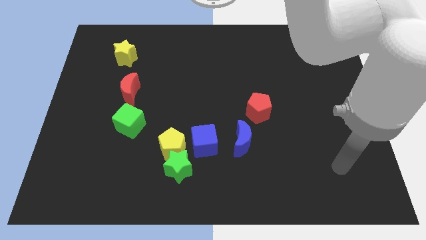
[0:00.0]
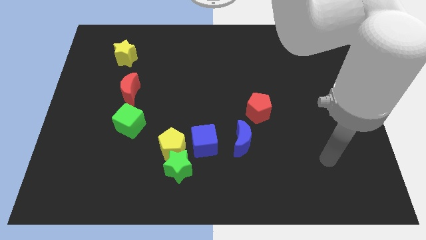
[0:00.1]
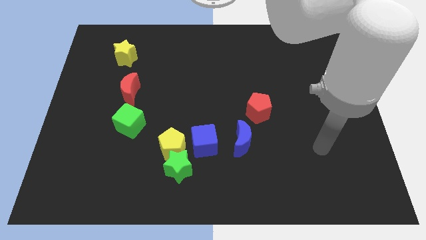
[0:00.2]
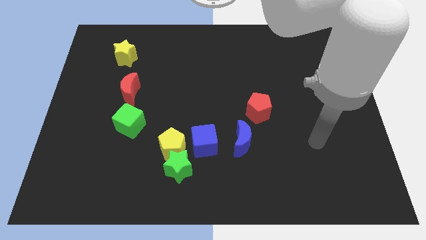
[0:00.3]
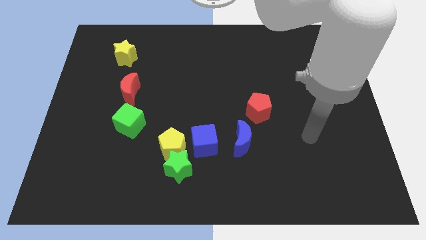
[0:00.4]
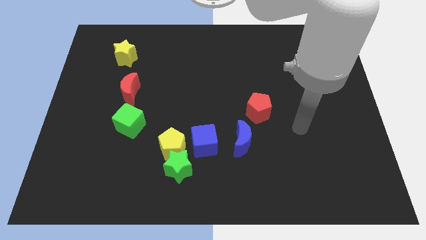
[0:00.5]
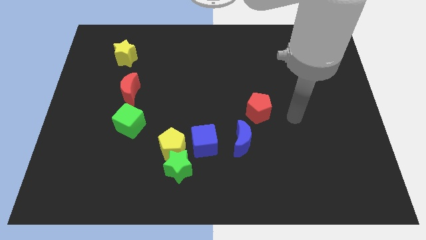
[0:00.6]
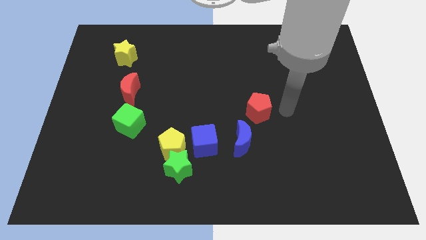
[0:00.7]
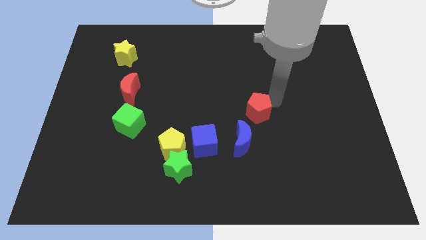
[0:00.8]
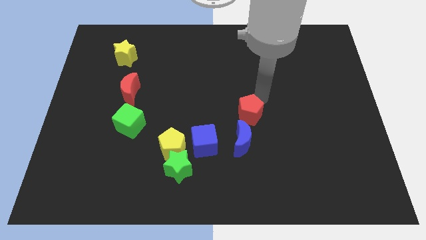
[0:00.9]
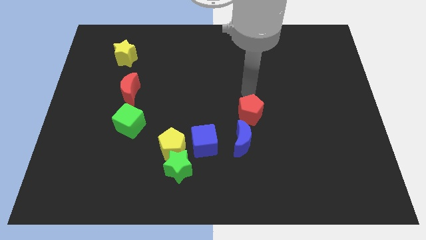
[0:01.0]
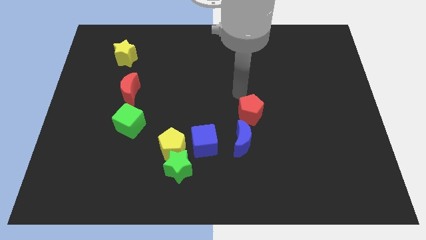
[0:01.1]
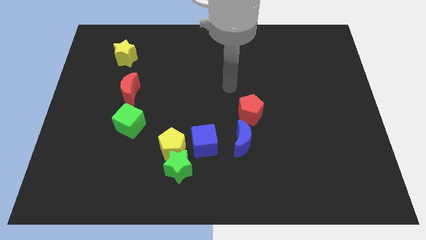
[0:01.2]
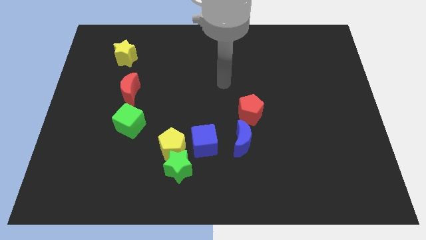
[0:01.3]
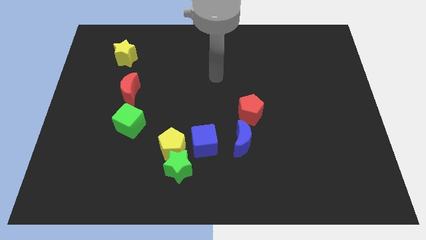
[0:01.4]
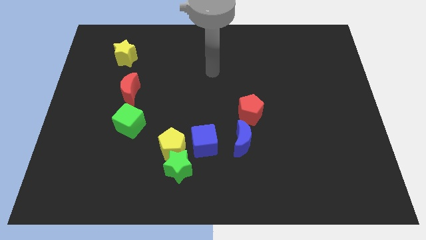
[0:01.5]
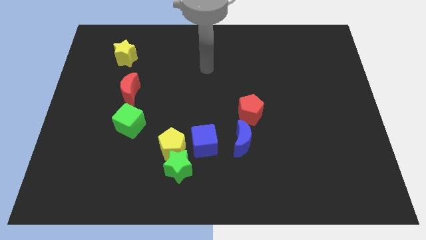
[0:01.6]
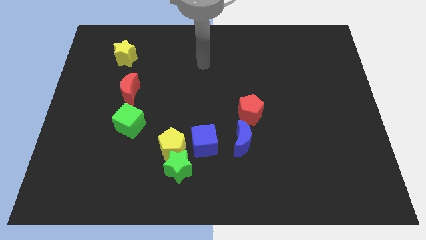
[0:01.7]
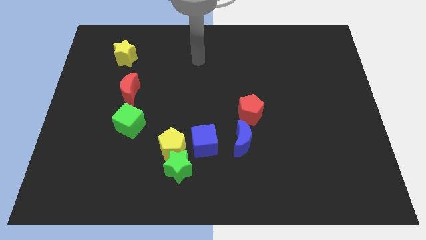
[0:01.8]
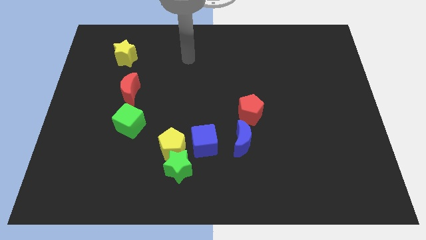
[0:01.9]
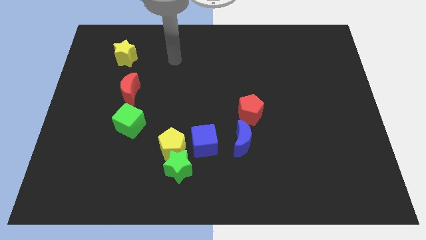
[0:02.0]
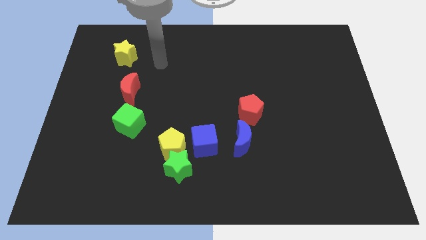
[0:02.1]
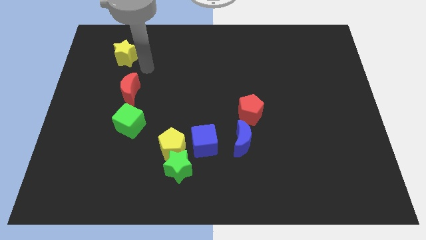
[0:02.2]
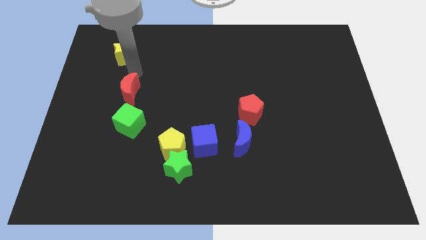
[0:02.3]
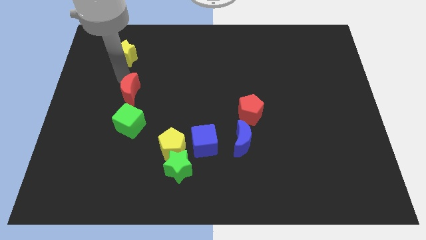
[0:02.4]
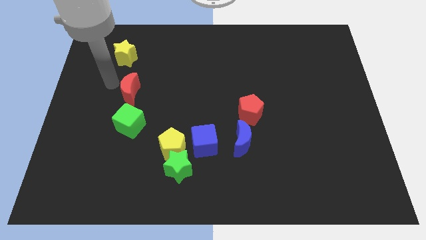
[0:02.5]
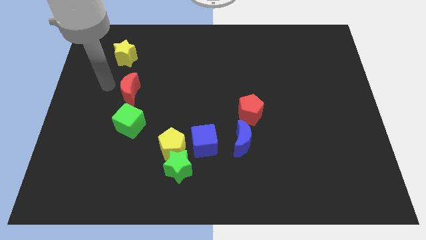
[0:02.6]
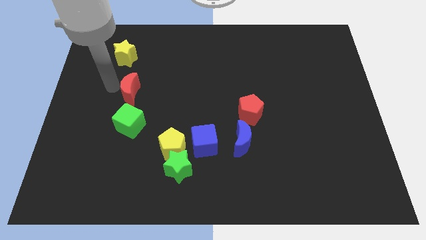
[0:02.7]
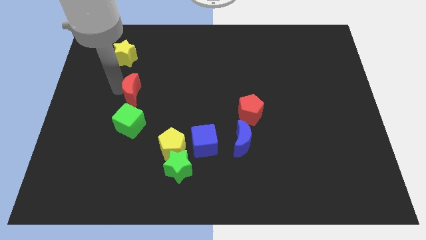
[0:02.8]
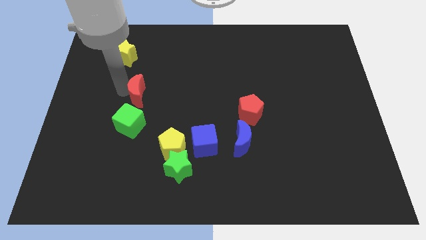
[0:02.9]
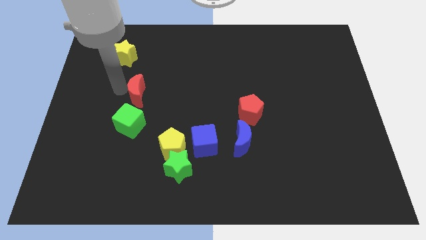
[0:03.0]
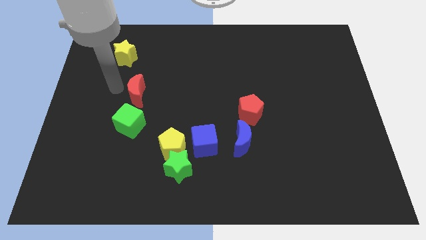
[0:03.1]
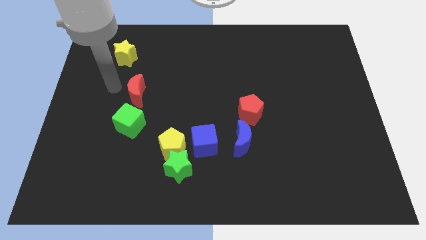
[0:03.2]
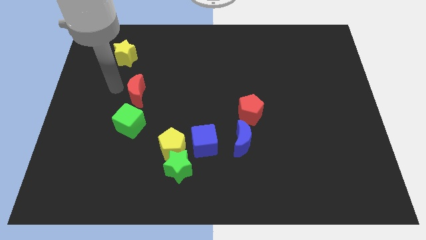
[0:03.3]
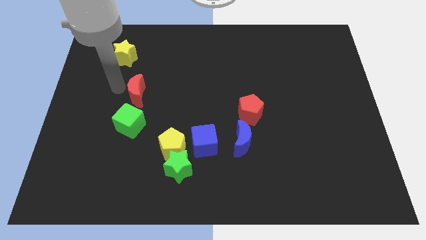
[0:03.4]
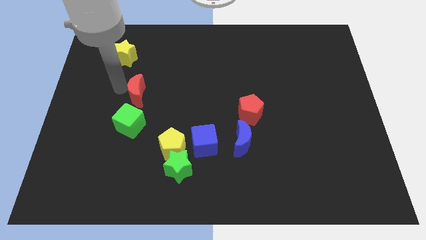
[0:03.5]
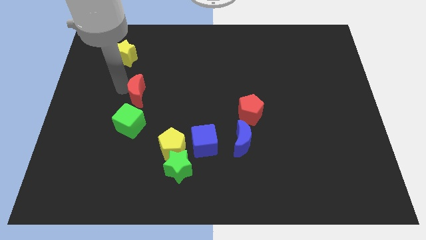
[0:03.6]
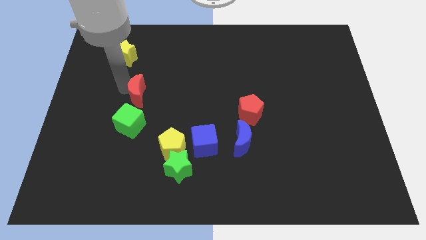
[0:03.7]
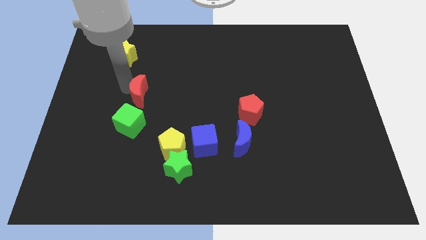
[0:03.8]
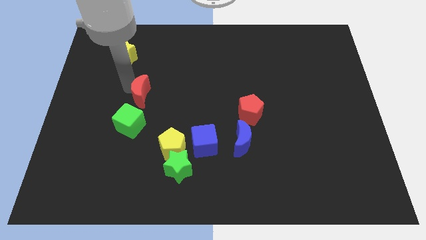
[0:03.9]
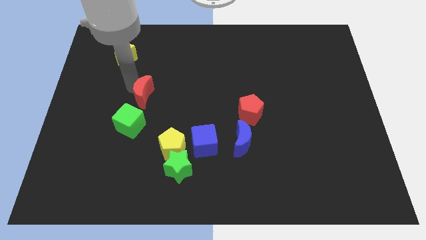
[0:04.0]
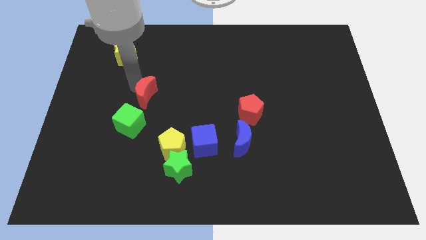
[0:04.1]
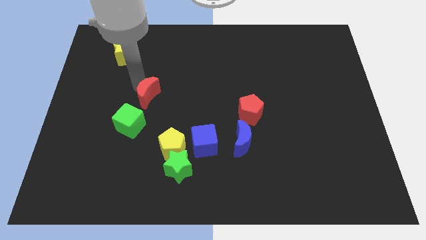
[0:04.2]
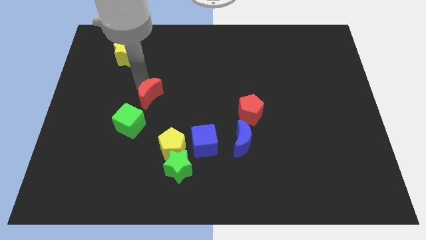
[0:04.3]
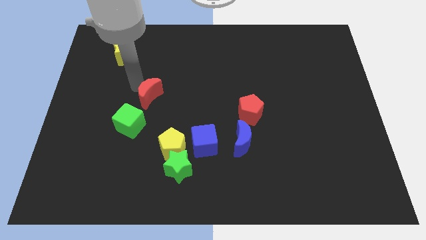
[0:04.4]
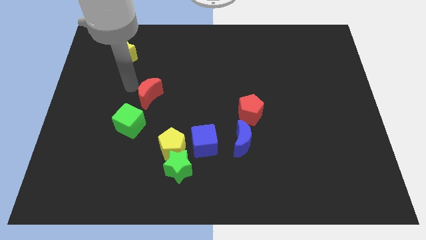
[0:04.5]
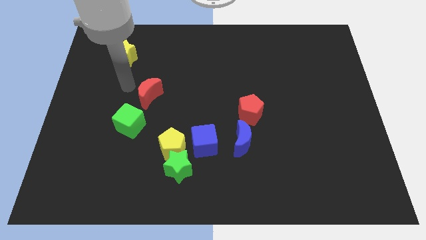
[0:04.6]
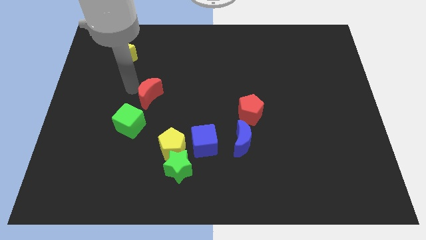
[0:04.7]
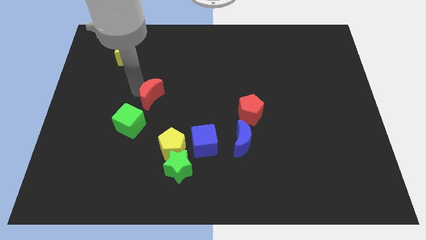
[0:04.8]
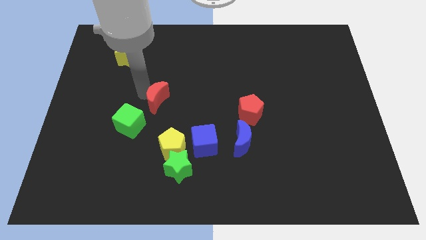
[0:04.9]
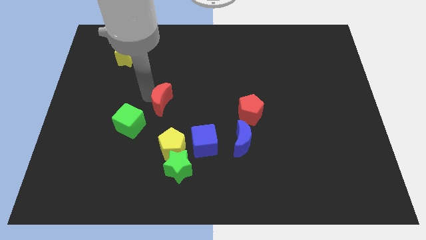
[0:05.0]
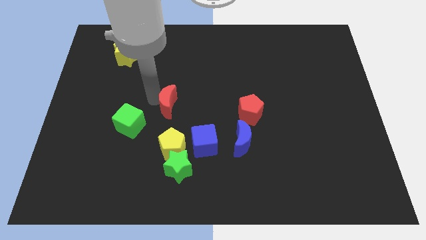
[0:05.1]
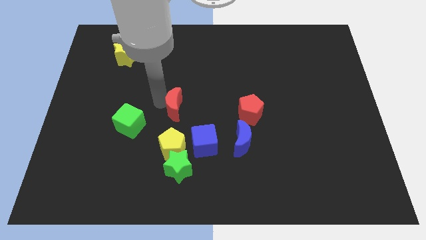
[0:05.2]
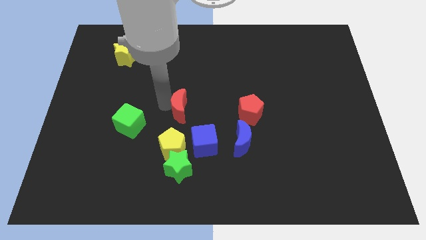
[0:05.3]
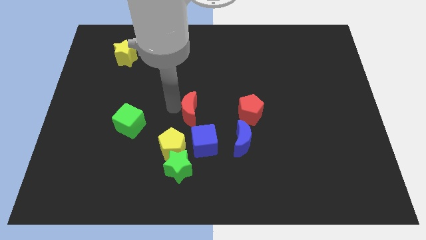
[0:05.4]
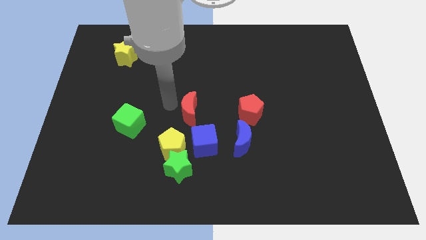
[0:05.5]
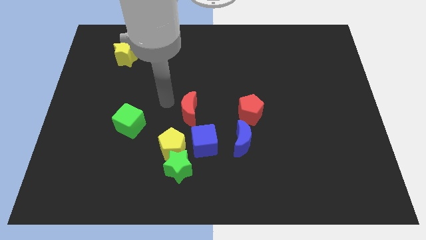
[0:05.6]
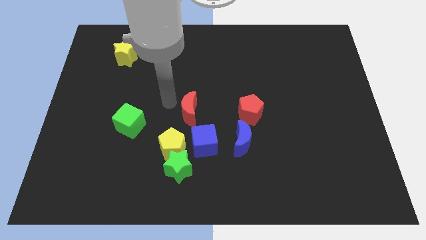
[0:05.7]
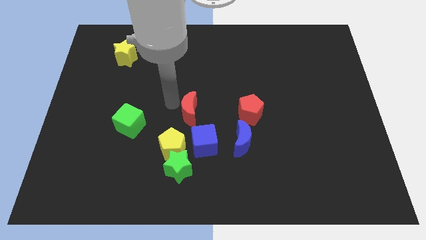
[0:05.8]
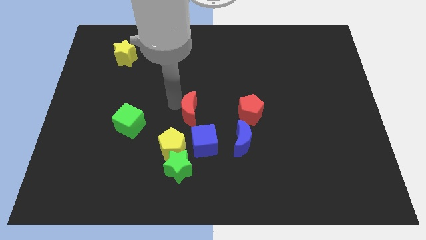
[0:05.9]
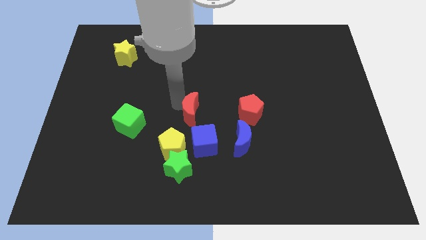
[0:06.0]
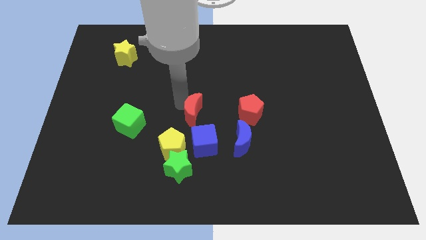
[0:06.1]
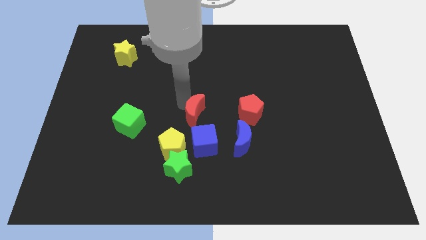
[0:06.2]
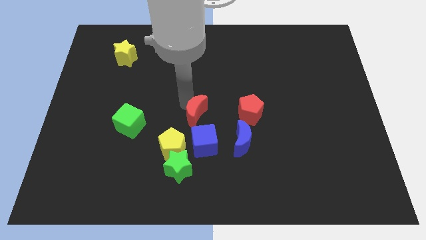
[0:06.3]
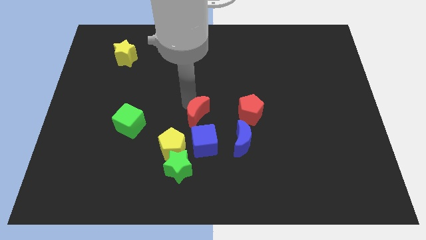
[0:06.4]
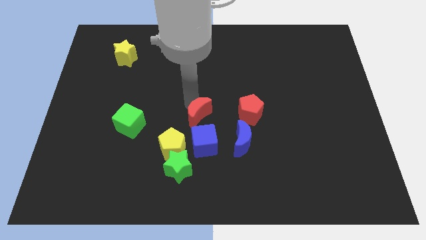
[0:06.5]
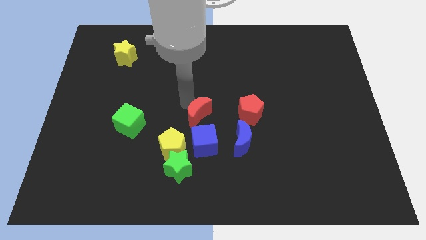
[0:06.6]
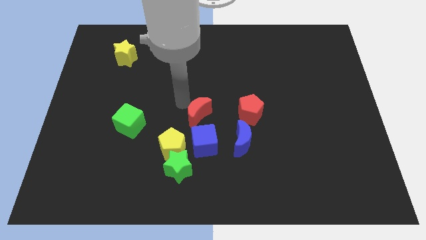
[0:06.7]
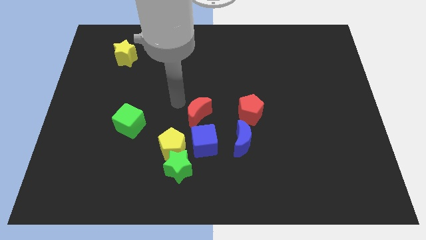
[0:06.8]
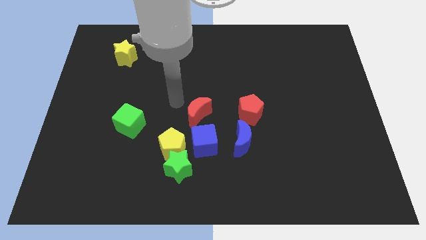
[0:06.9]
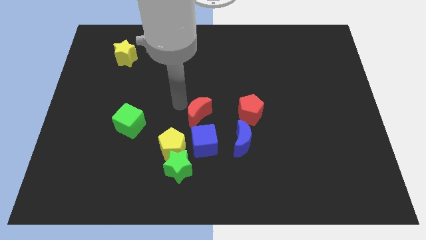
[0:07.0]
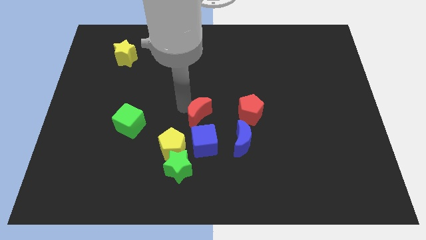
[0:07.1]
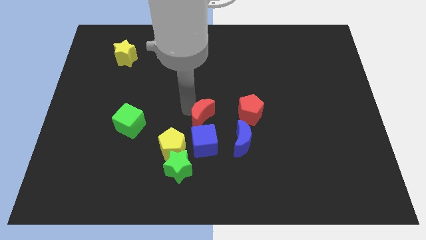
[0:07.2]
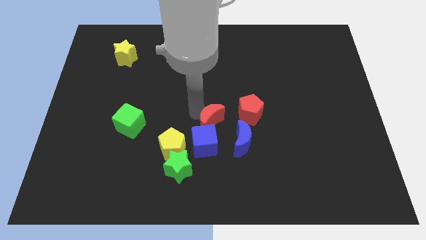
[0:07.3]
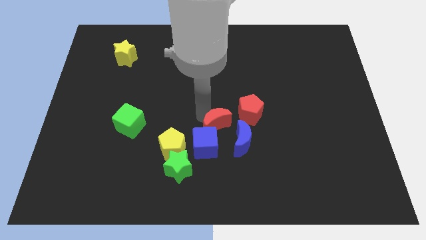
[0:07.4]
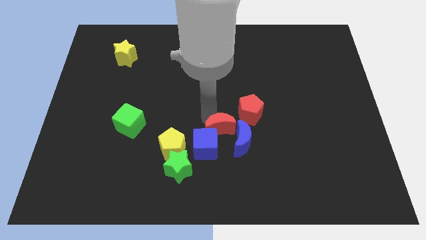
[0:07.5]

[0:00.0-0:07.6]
move the red moon towards the blue moon
